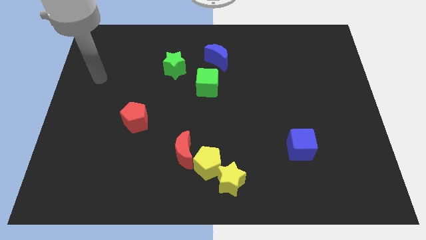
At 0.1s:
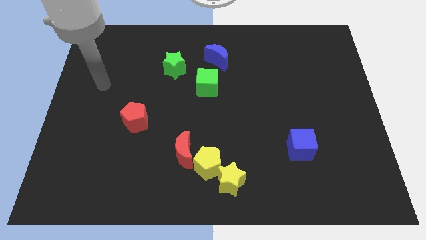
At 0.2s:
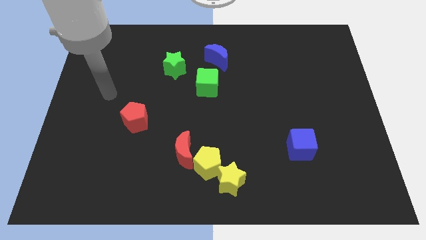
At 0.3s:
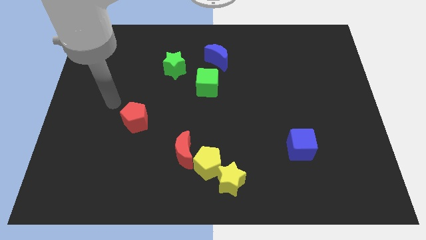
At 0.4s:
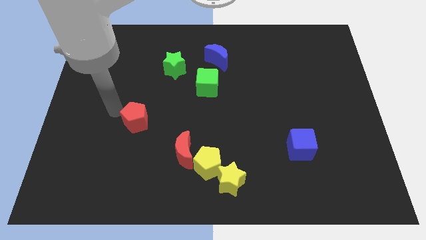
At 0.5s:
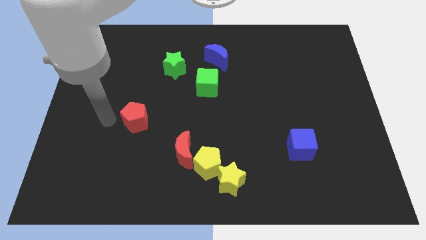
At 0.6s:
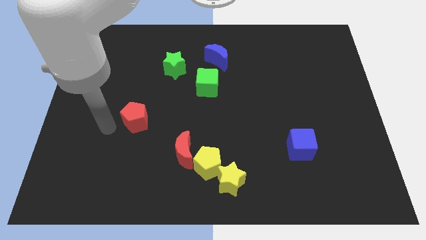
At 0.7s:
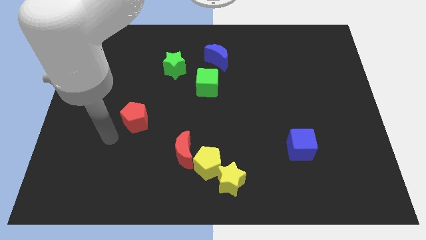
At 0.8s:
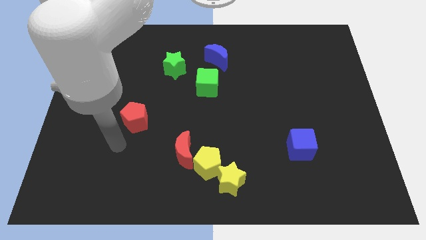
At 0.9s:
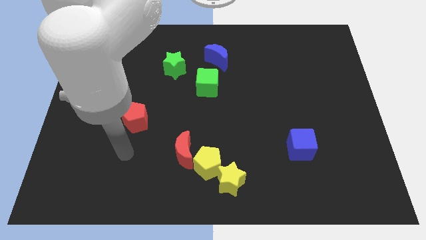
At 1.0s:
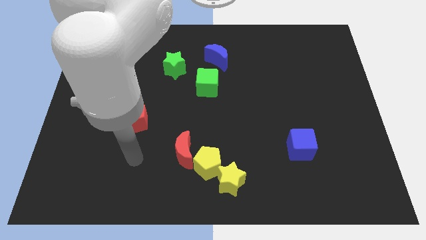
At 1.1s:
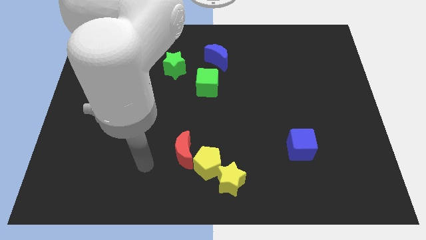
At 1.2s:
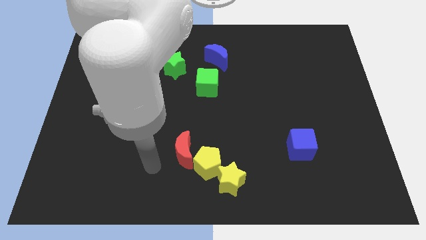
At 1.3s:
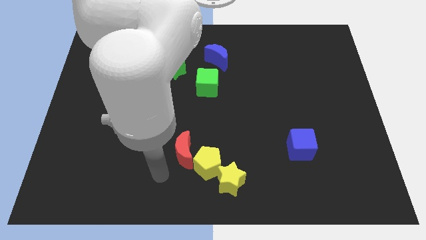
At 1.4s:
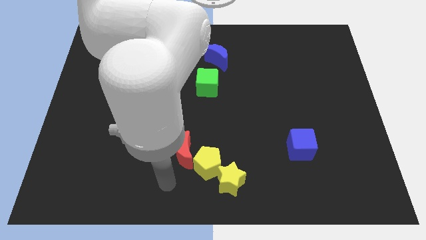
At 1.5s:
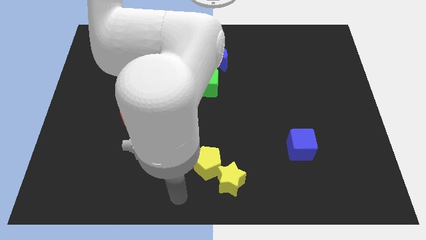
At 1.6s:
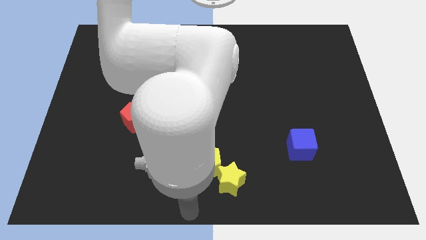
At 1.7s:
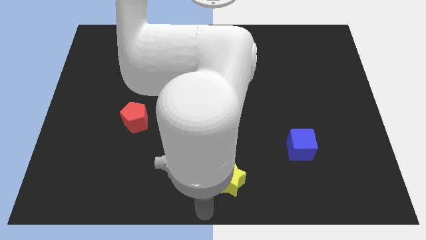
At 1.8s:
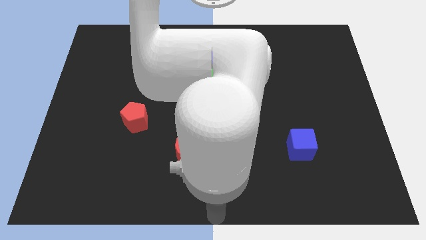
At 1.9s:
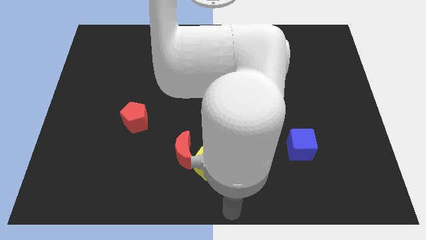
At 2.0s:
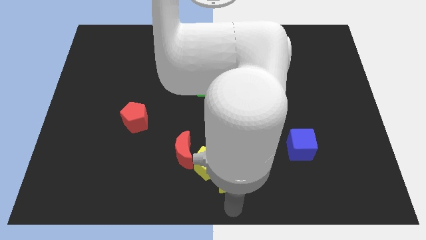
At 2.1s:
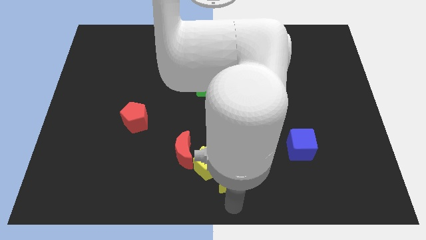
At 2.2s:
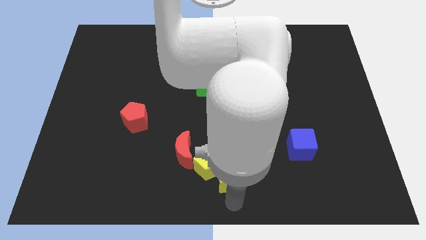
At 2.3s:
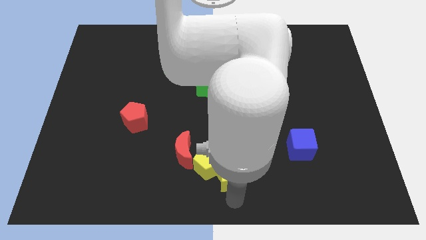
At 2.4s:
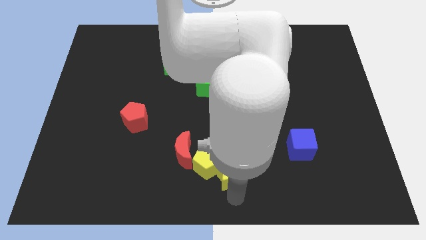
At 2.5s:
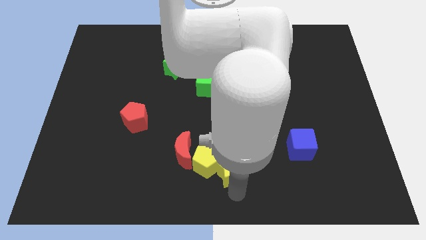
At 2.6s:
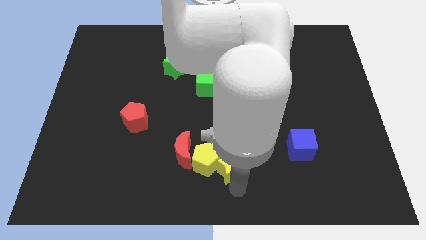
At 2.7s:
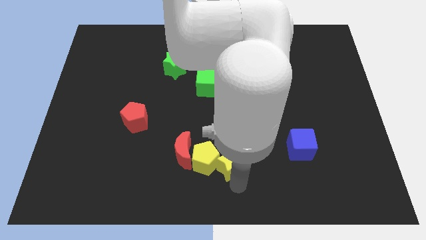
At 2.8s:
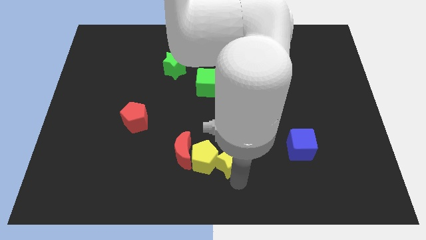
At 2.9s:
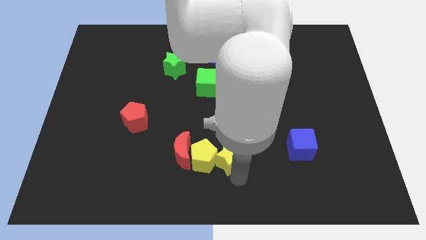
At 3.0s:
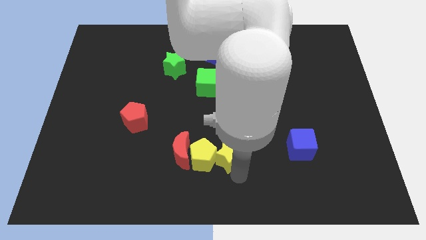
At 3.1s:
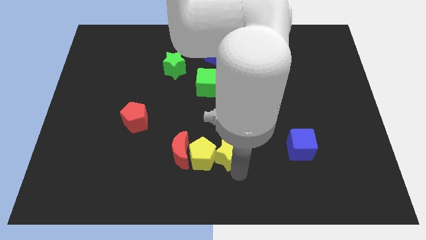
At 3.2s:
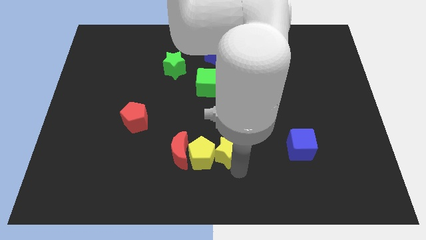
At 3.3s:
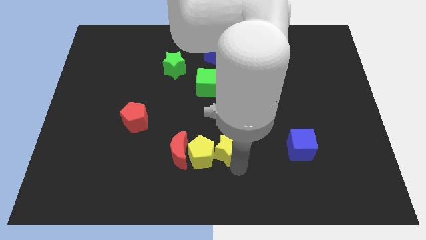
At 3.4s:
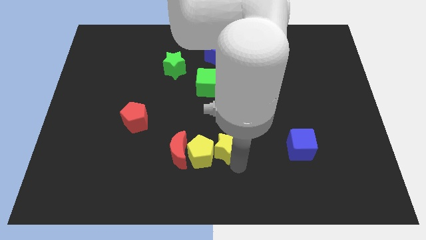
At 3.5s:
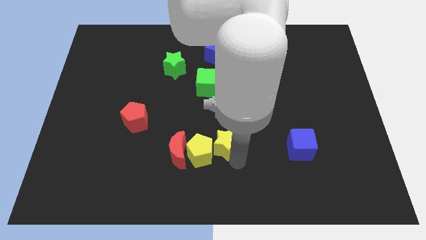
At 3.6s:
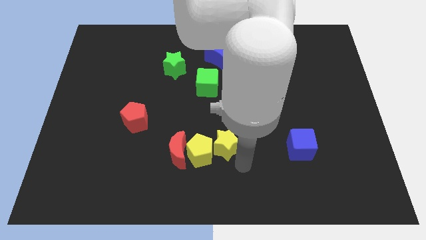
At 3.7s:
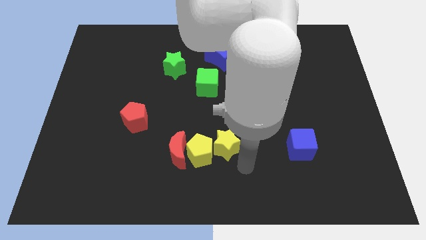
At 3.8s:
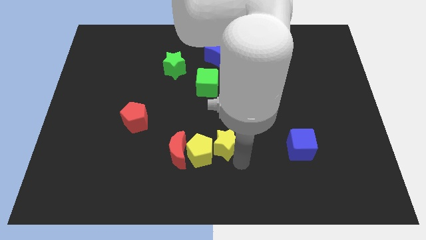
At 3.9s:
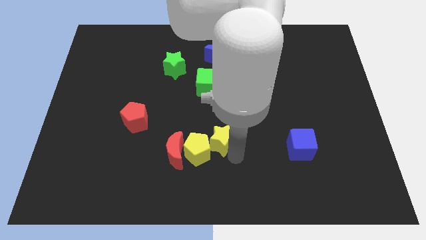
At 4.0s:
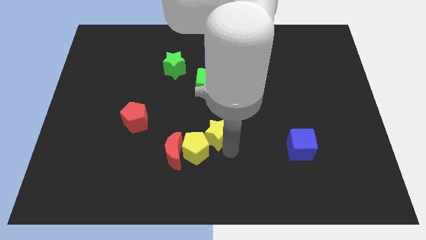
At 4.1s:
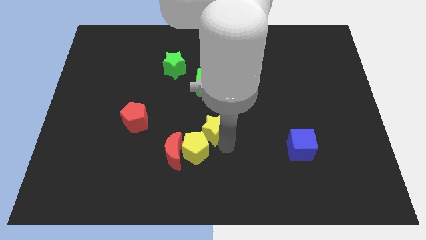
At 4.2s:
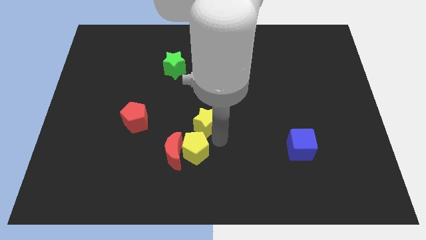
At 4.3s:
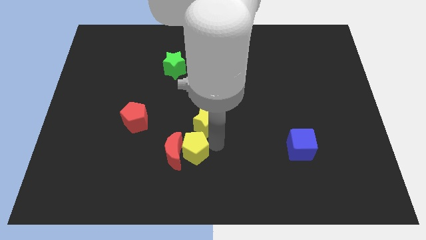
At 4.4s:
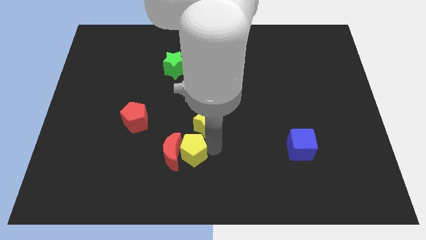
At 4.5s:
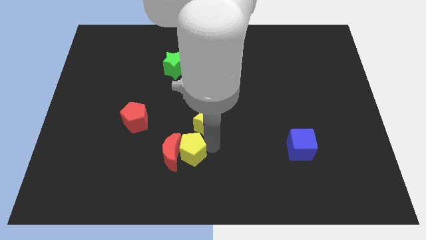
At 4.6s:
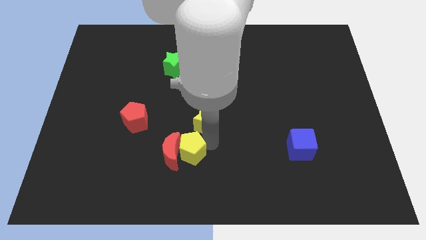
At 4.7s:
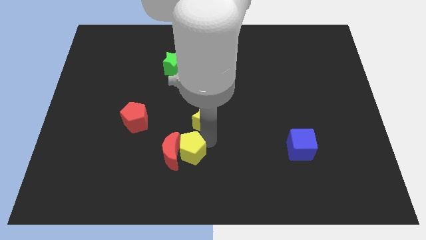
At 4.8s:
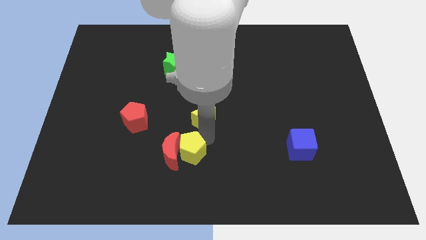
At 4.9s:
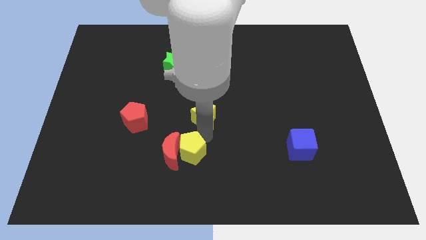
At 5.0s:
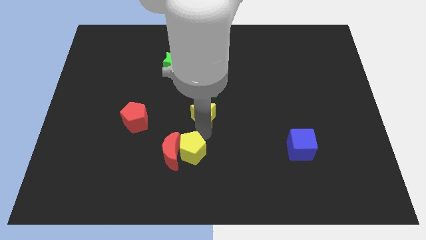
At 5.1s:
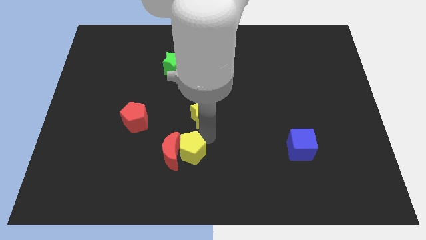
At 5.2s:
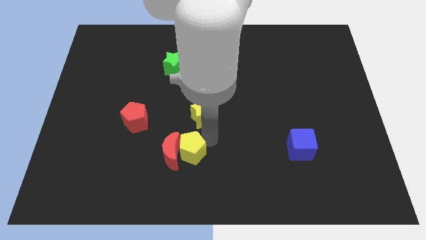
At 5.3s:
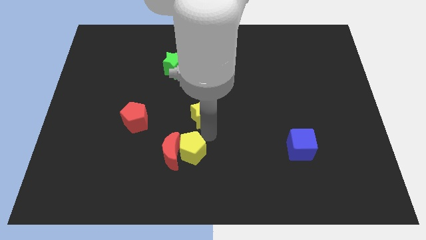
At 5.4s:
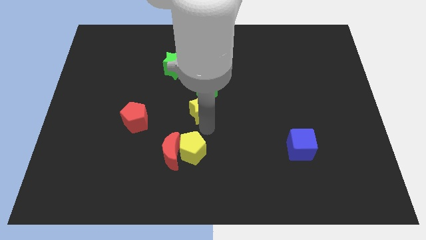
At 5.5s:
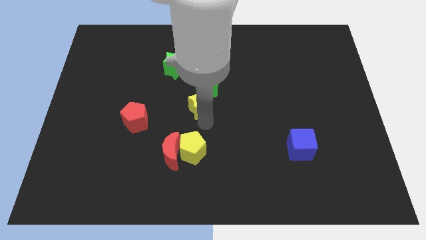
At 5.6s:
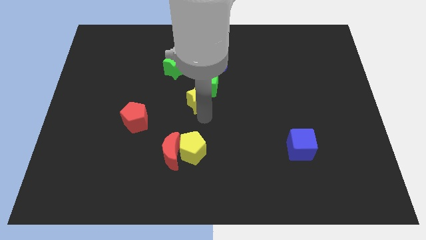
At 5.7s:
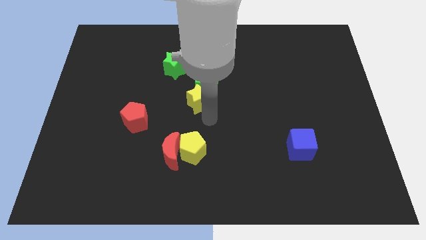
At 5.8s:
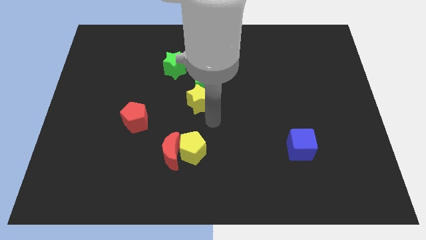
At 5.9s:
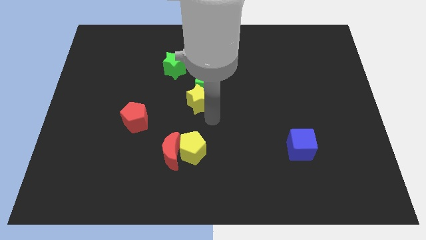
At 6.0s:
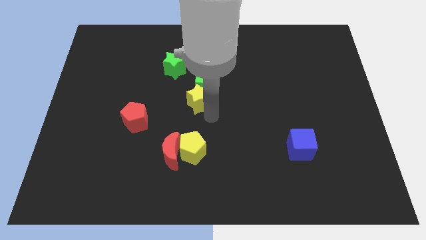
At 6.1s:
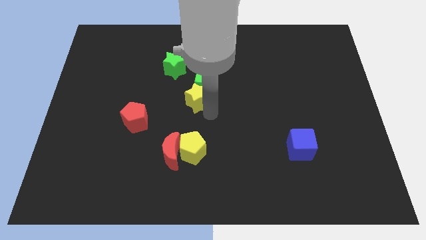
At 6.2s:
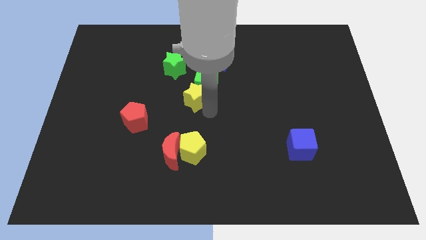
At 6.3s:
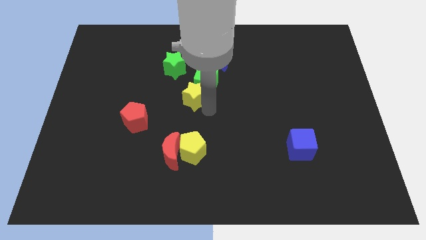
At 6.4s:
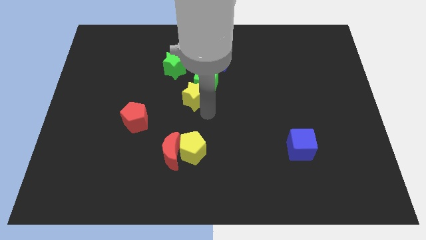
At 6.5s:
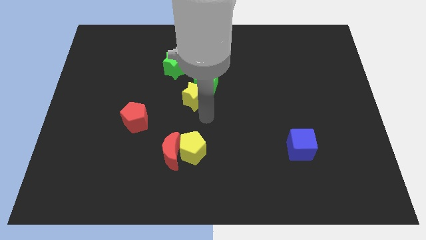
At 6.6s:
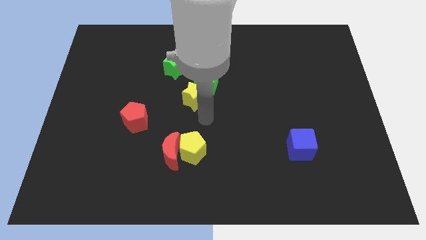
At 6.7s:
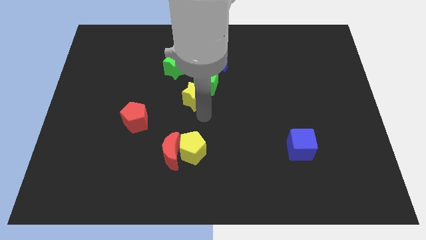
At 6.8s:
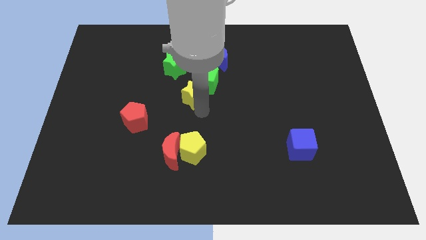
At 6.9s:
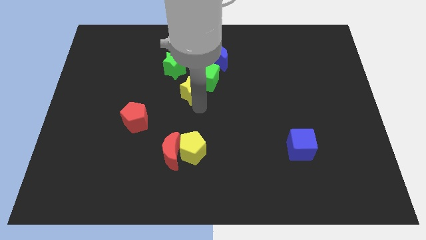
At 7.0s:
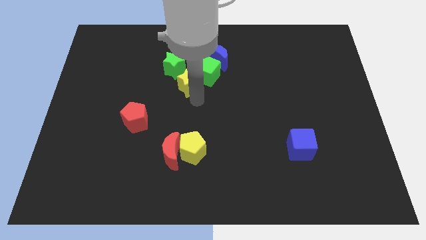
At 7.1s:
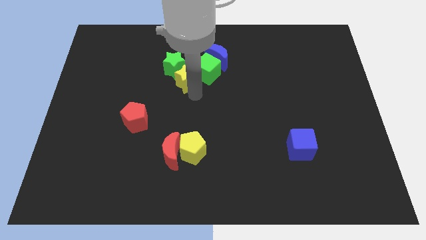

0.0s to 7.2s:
put the yellow star to the green star

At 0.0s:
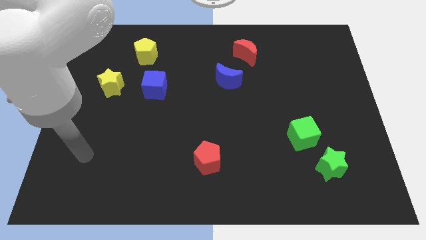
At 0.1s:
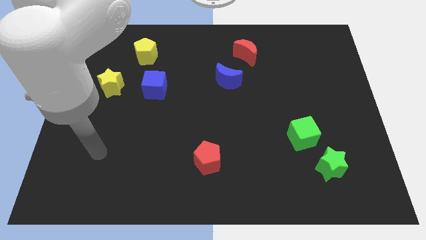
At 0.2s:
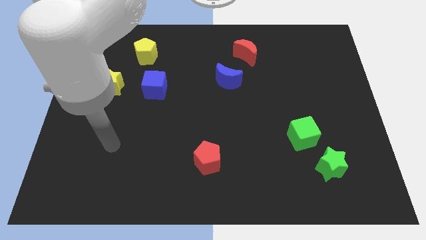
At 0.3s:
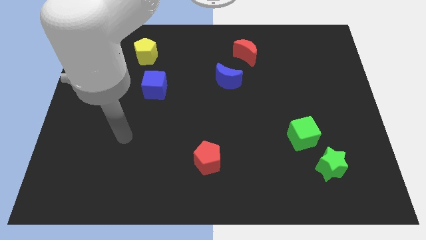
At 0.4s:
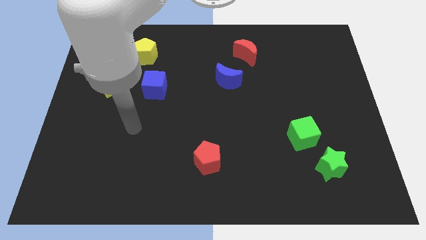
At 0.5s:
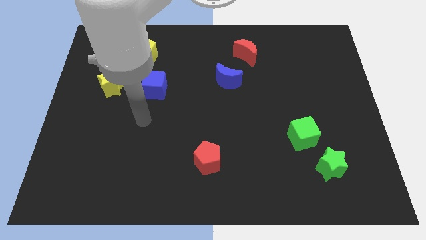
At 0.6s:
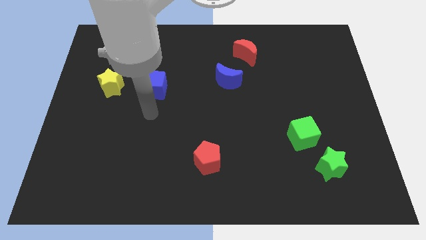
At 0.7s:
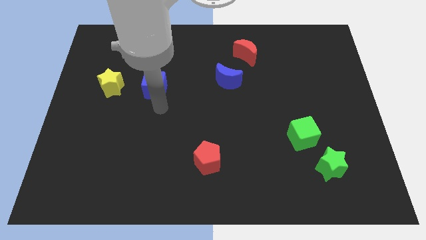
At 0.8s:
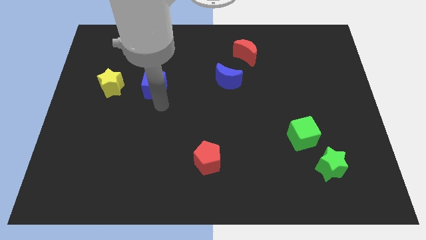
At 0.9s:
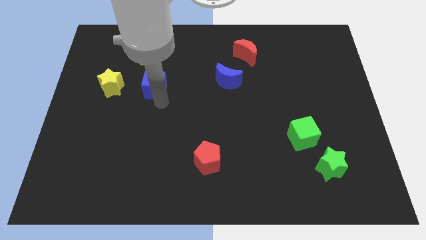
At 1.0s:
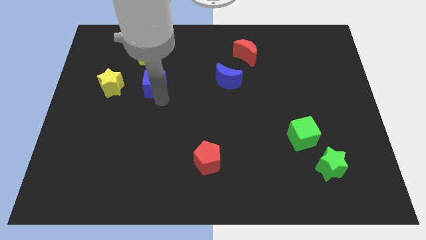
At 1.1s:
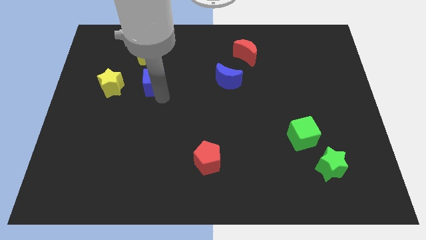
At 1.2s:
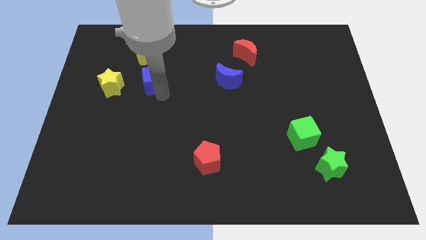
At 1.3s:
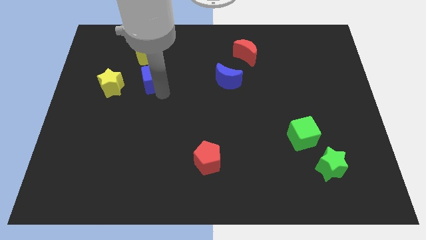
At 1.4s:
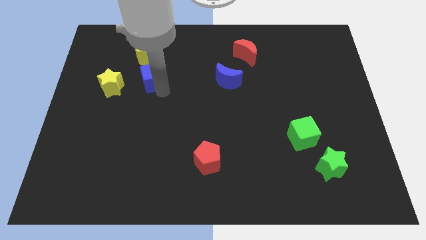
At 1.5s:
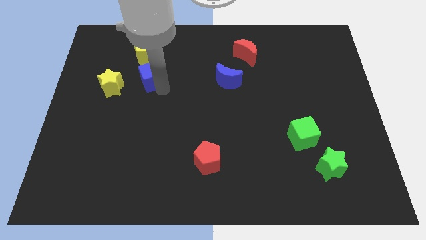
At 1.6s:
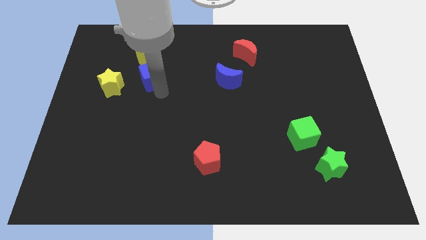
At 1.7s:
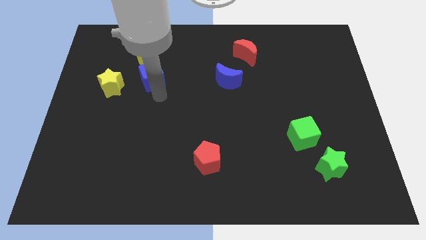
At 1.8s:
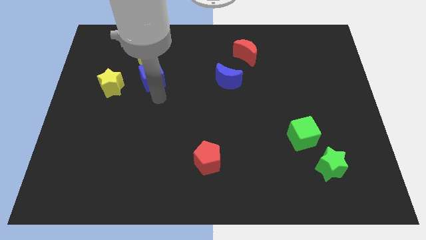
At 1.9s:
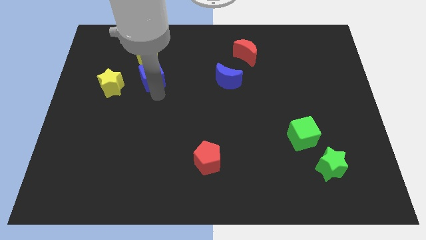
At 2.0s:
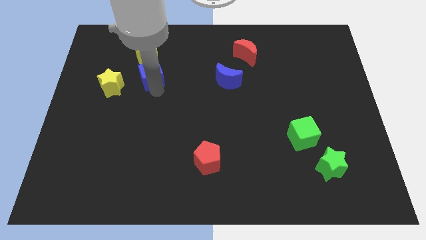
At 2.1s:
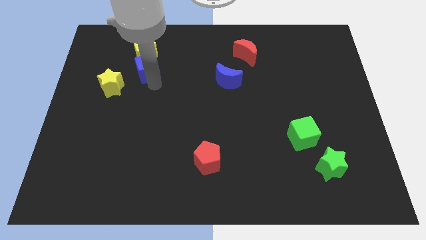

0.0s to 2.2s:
put the blue cube next to the yellow pentagon
